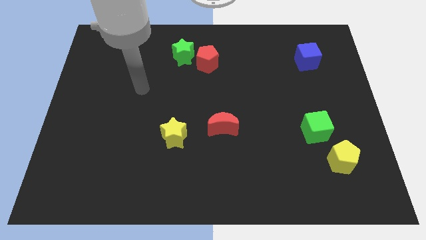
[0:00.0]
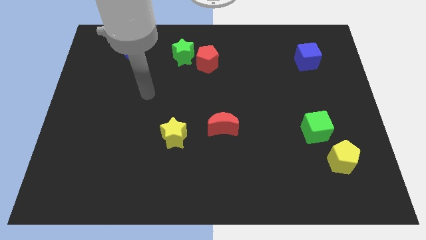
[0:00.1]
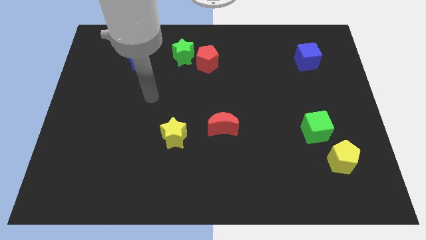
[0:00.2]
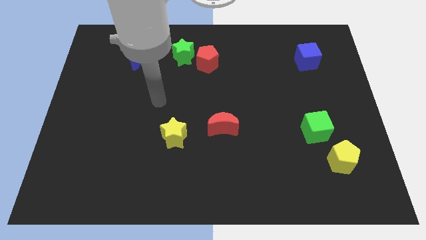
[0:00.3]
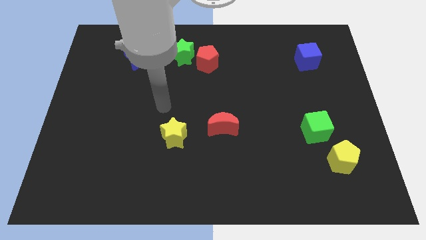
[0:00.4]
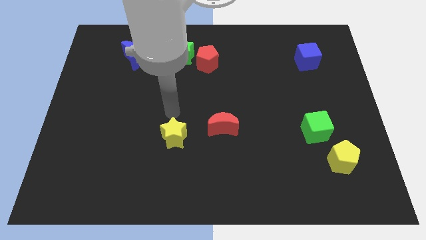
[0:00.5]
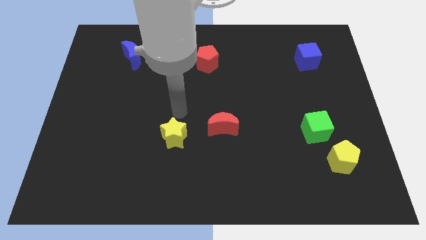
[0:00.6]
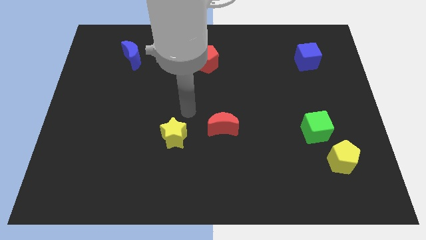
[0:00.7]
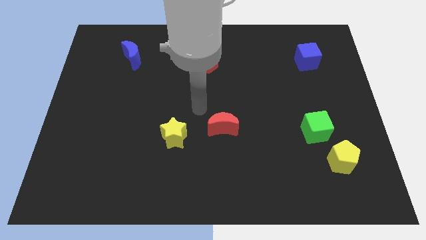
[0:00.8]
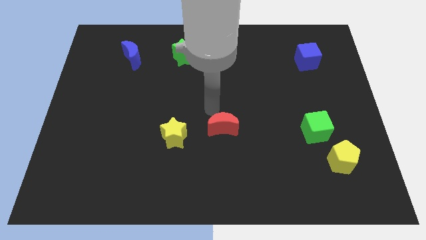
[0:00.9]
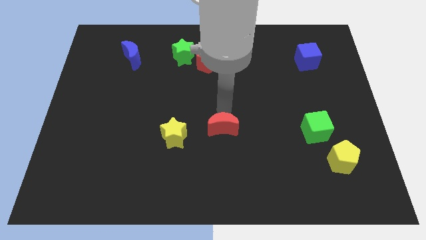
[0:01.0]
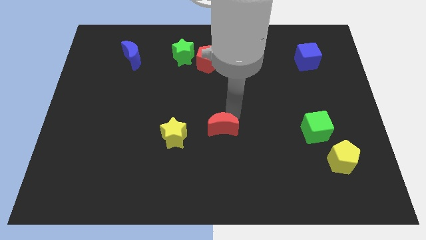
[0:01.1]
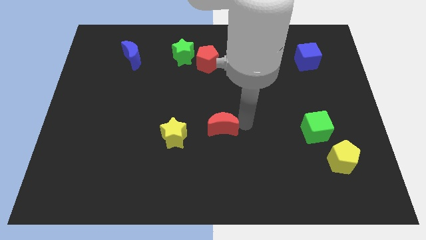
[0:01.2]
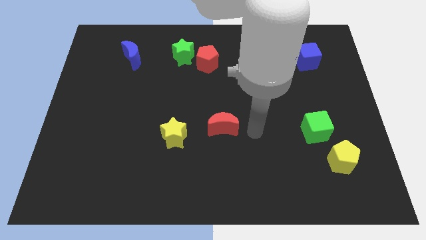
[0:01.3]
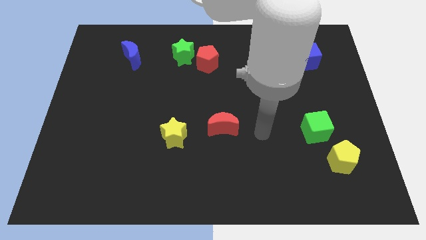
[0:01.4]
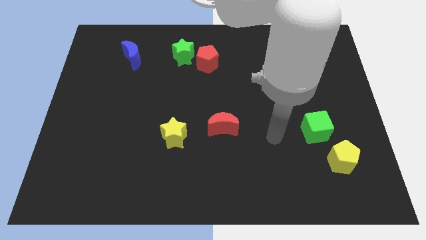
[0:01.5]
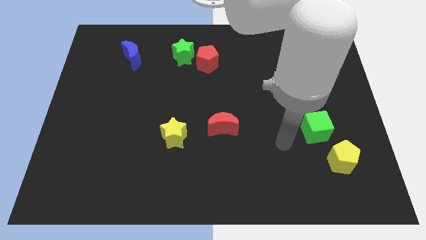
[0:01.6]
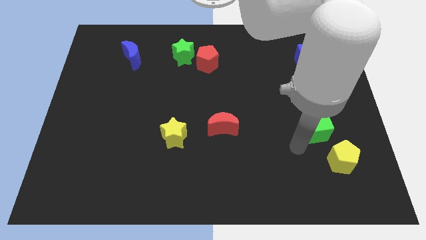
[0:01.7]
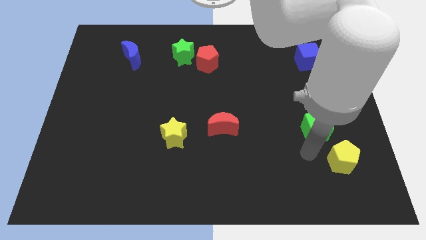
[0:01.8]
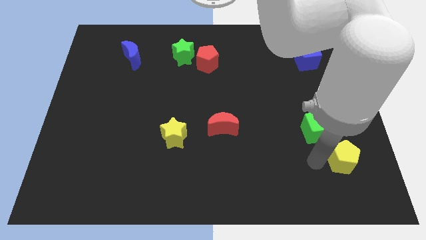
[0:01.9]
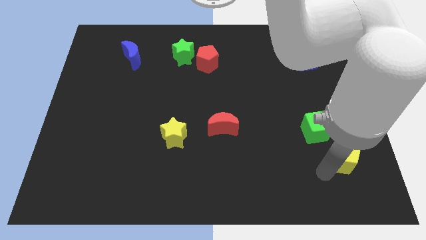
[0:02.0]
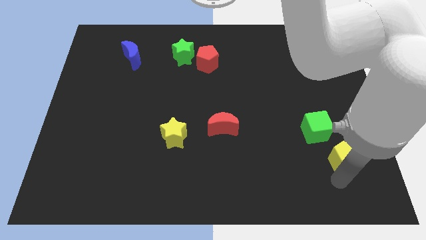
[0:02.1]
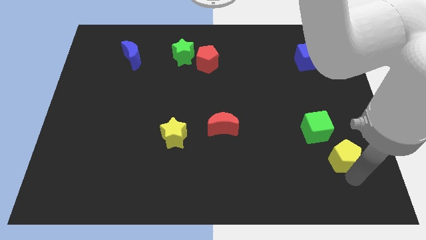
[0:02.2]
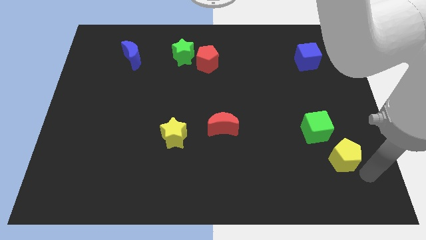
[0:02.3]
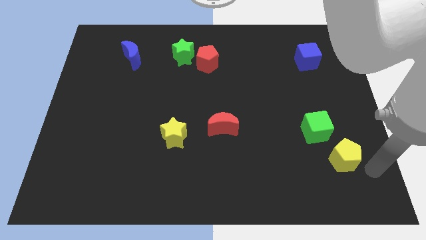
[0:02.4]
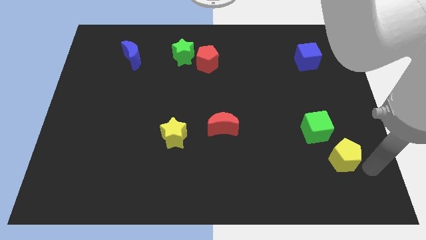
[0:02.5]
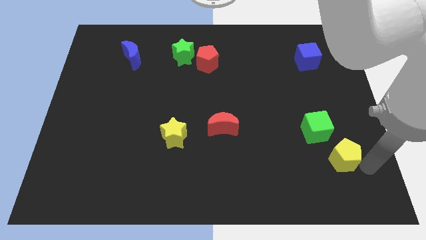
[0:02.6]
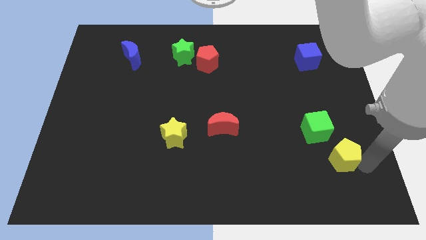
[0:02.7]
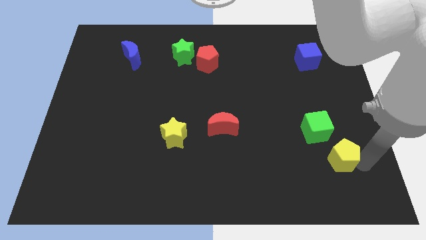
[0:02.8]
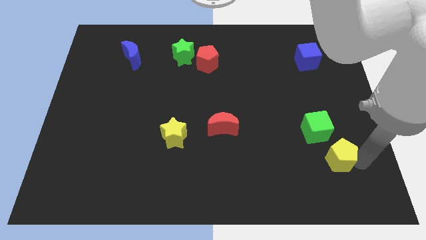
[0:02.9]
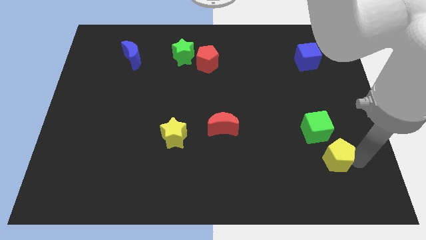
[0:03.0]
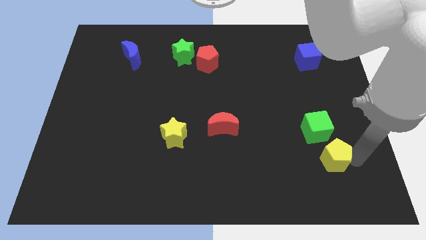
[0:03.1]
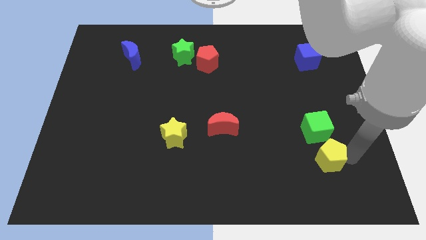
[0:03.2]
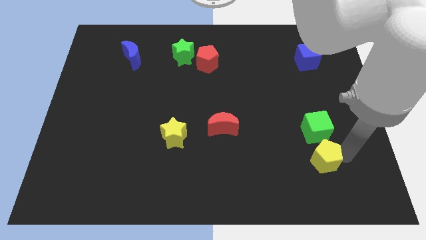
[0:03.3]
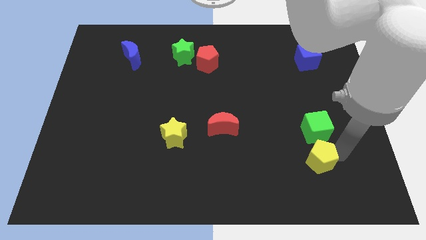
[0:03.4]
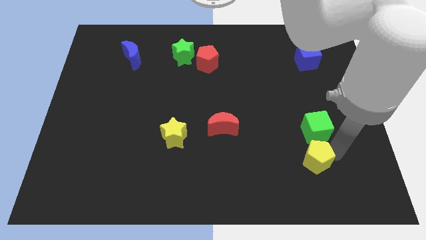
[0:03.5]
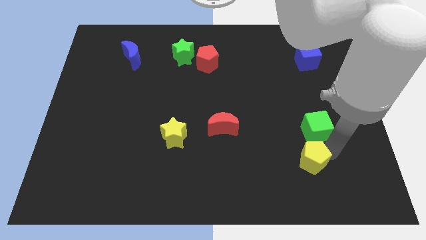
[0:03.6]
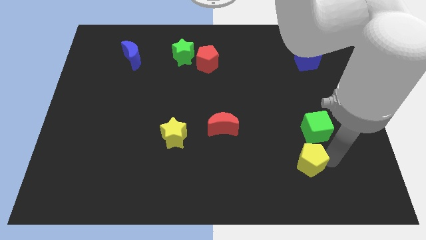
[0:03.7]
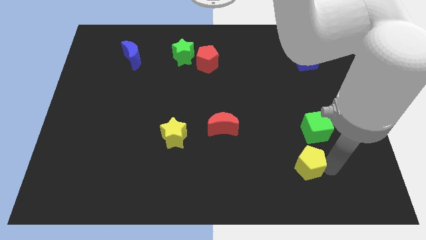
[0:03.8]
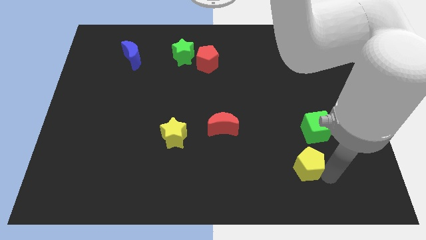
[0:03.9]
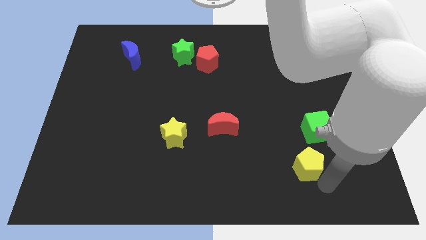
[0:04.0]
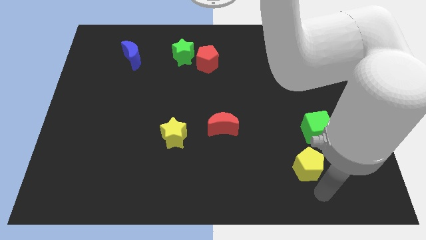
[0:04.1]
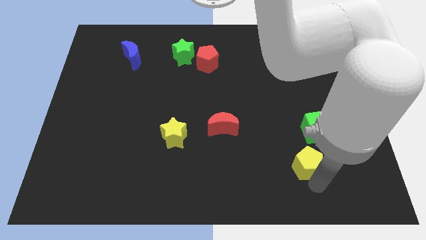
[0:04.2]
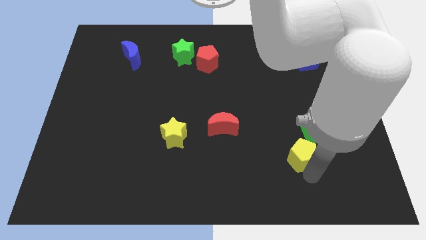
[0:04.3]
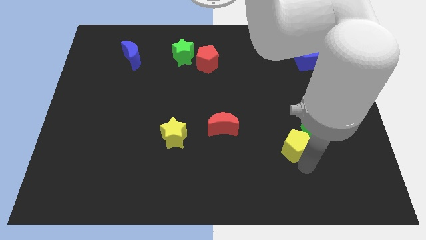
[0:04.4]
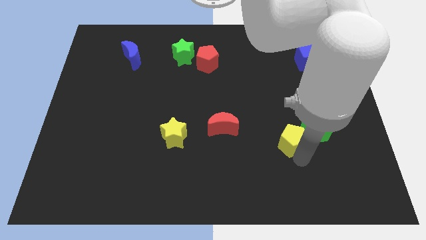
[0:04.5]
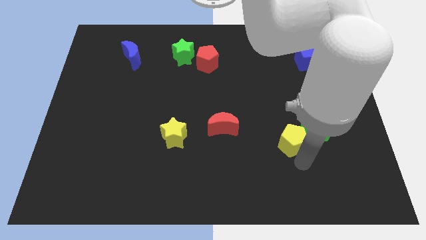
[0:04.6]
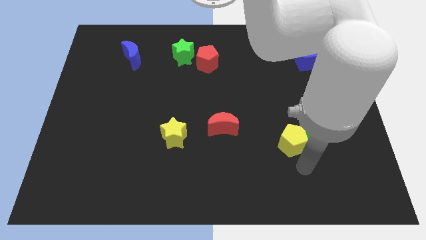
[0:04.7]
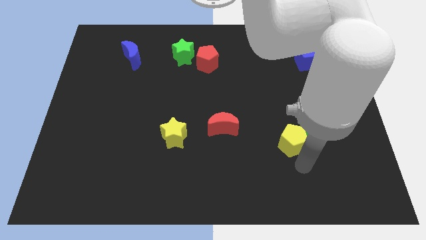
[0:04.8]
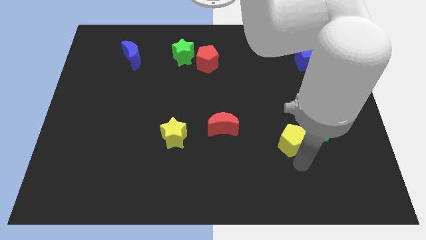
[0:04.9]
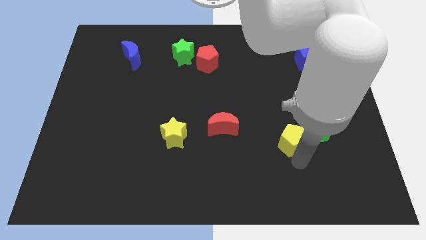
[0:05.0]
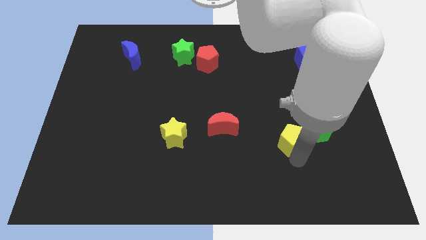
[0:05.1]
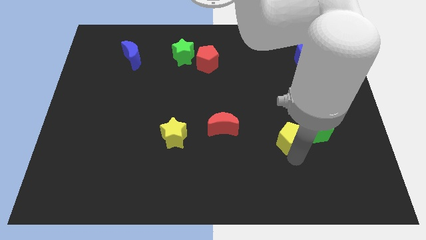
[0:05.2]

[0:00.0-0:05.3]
push the yellow pentagon just right of the red moon

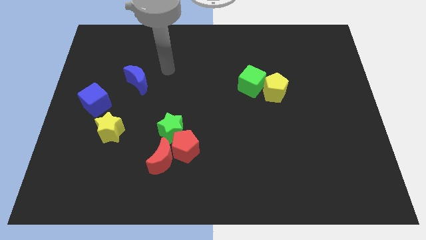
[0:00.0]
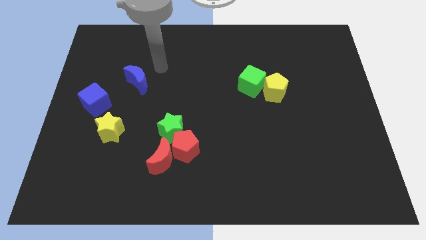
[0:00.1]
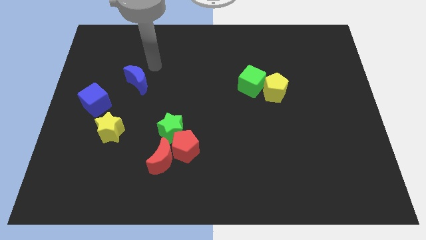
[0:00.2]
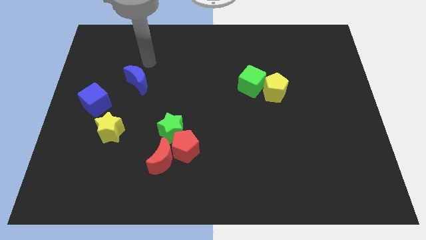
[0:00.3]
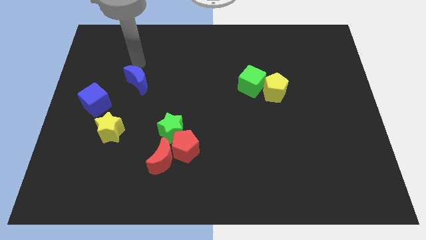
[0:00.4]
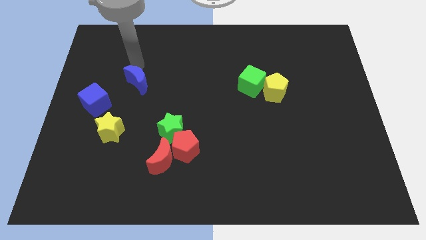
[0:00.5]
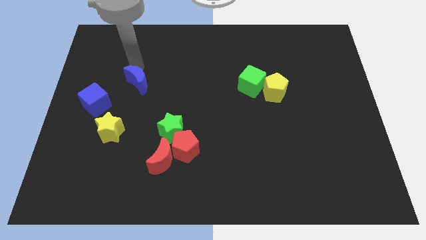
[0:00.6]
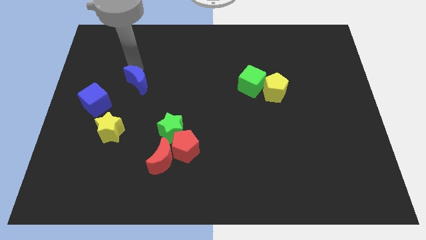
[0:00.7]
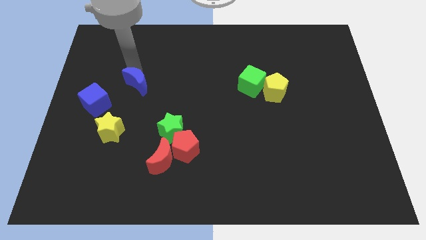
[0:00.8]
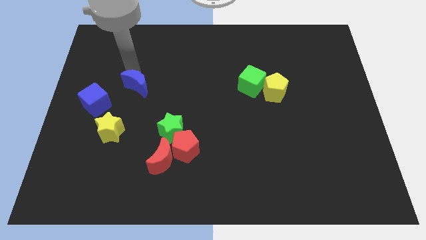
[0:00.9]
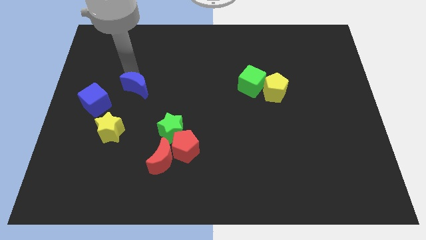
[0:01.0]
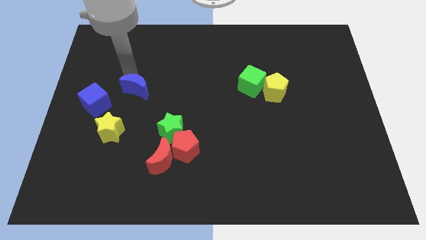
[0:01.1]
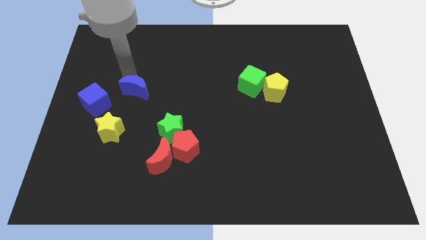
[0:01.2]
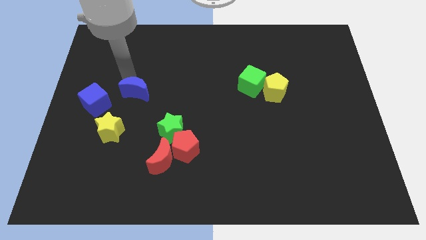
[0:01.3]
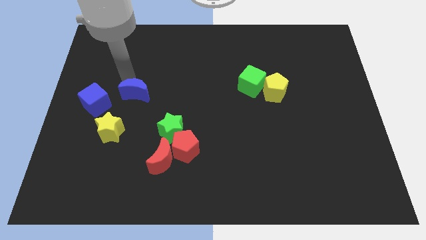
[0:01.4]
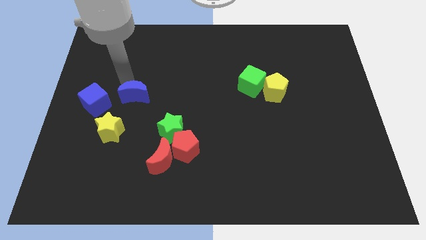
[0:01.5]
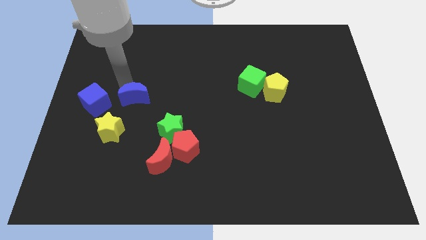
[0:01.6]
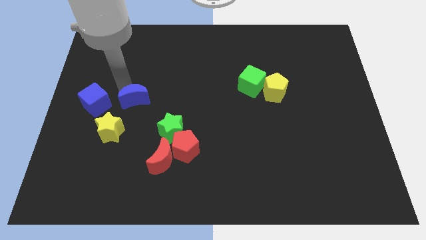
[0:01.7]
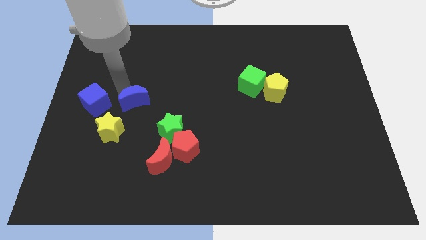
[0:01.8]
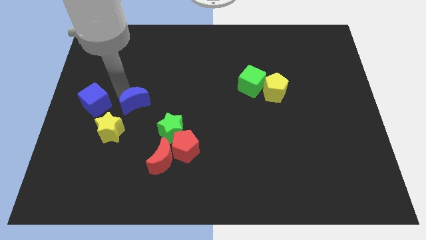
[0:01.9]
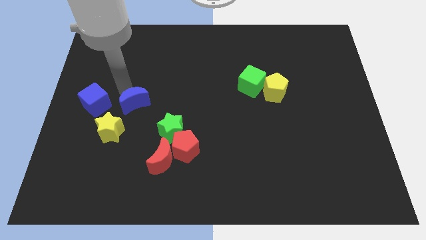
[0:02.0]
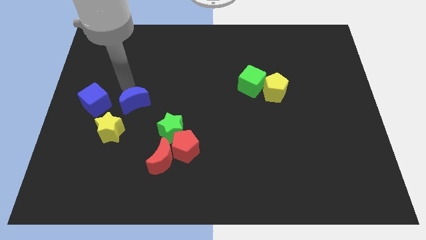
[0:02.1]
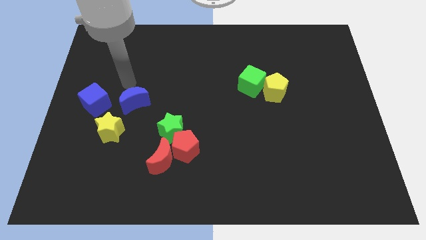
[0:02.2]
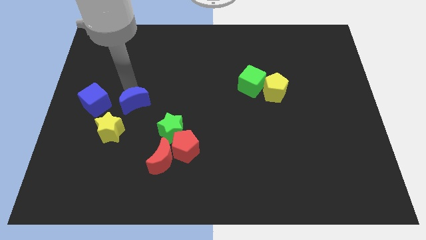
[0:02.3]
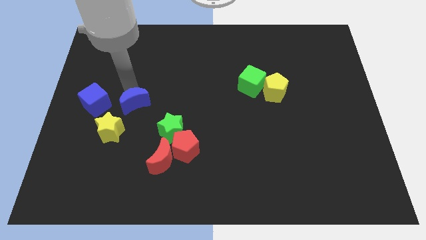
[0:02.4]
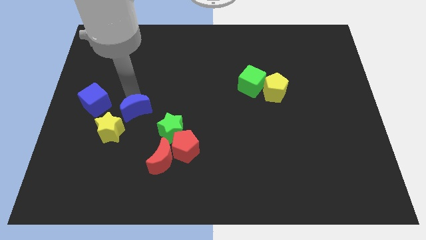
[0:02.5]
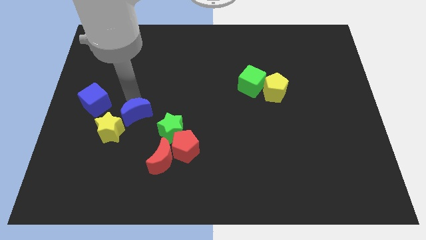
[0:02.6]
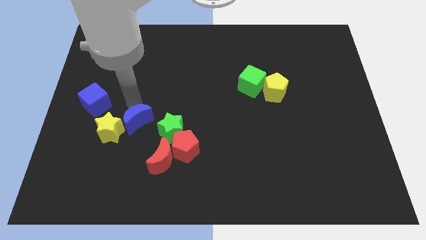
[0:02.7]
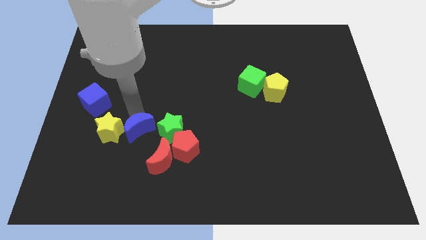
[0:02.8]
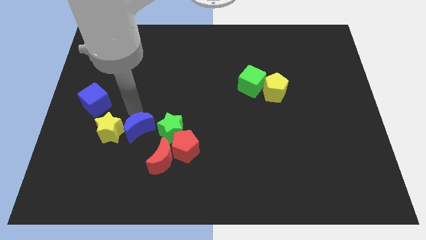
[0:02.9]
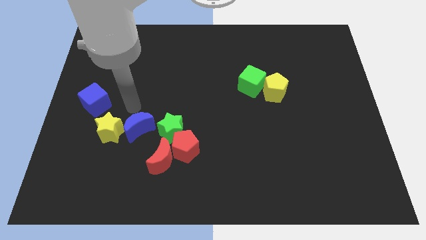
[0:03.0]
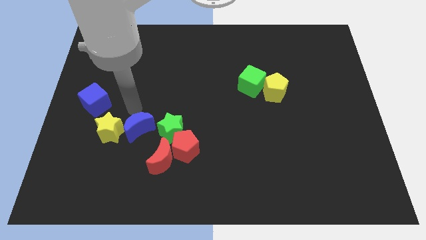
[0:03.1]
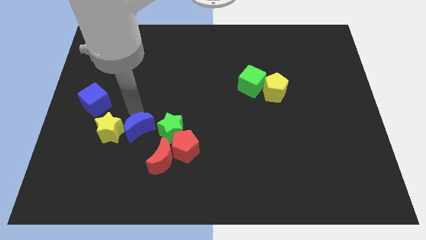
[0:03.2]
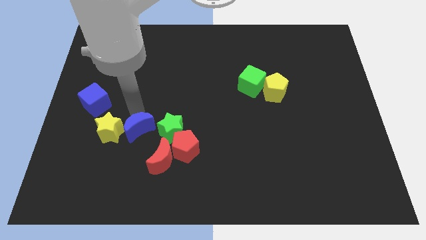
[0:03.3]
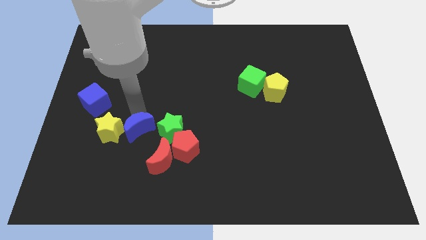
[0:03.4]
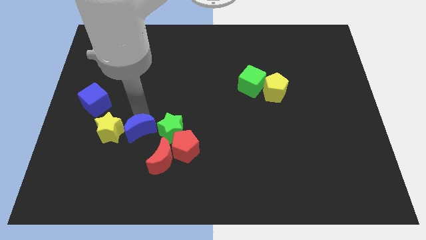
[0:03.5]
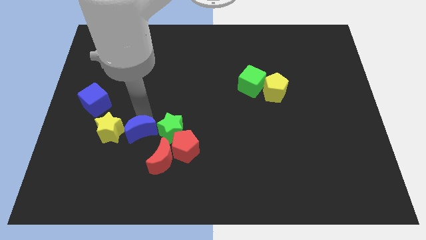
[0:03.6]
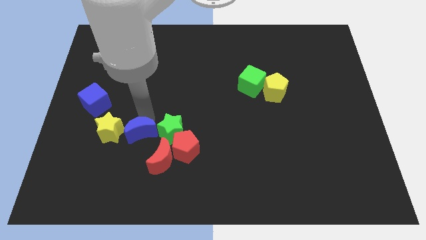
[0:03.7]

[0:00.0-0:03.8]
slide the blue moon to the bottom left of the green star
